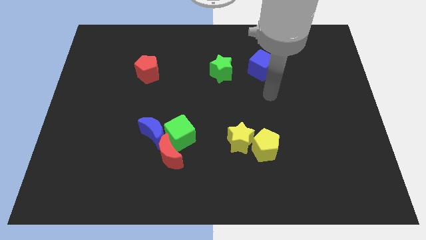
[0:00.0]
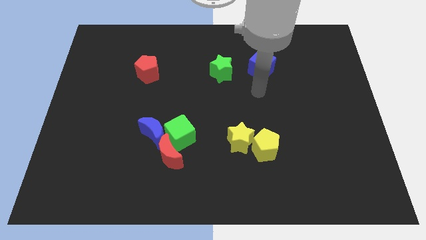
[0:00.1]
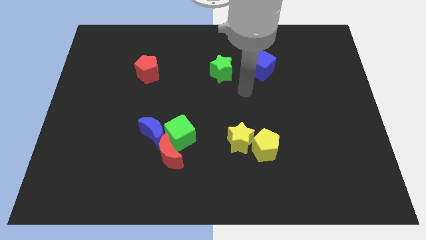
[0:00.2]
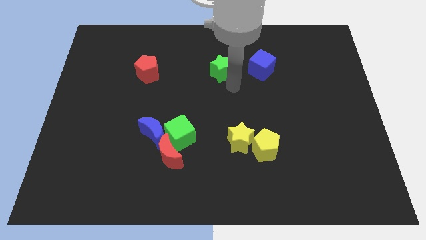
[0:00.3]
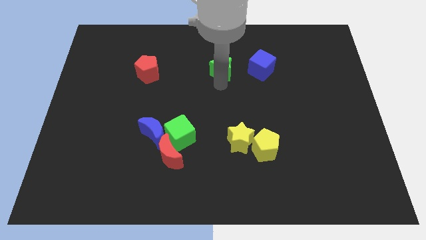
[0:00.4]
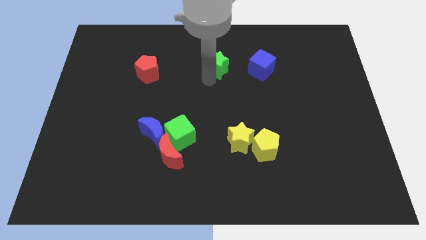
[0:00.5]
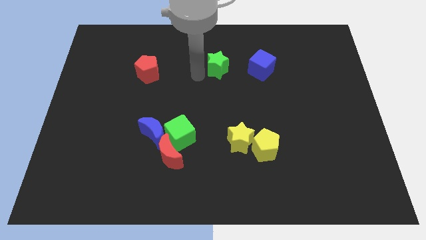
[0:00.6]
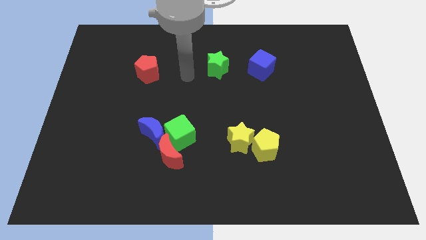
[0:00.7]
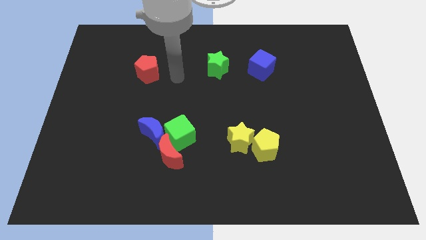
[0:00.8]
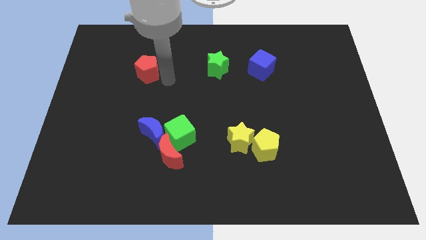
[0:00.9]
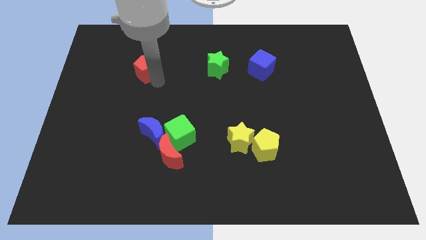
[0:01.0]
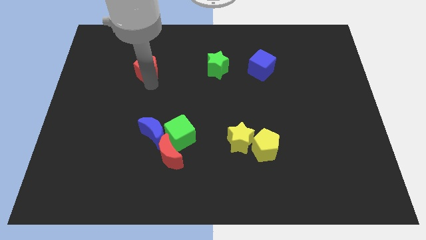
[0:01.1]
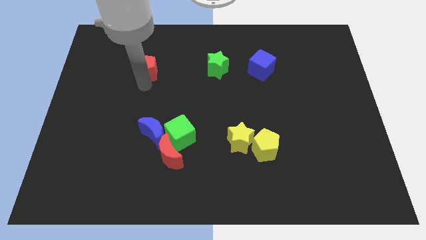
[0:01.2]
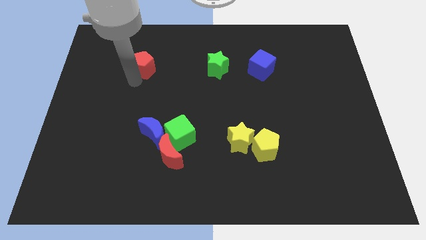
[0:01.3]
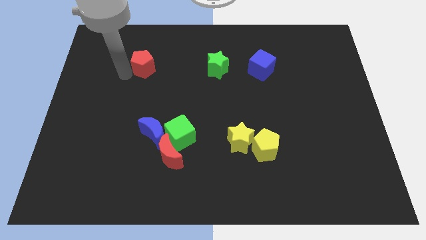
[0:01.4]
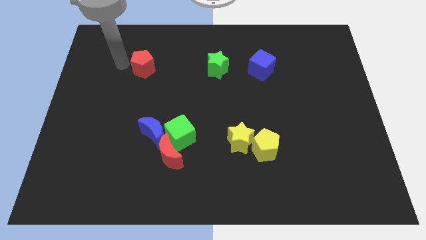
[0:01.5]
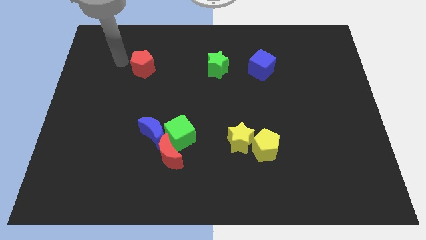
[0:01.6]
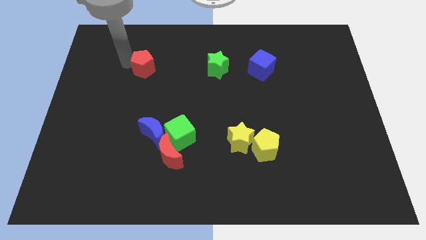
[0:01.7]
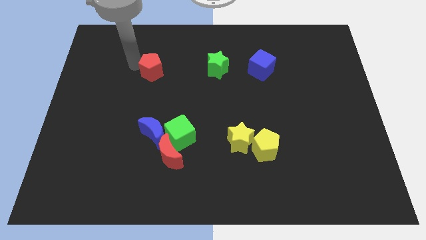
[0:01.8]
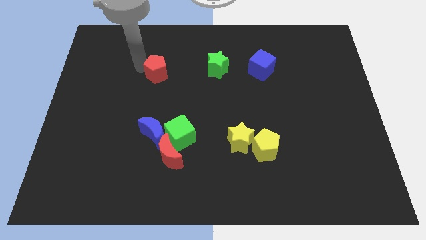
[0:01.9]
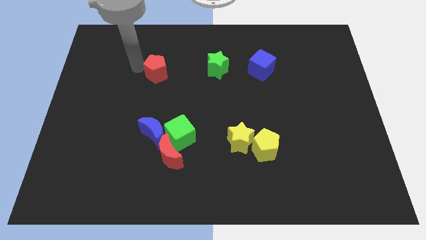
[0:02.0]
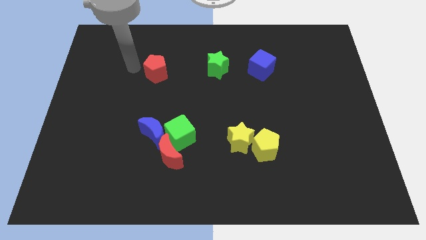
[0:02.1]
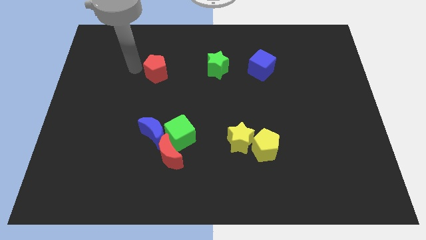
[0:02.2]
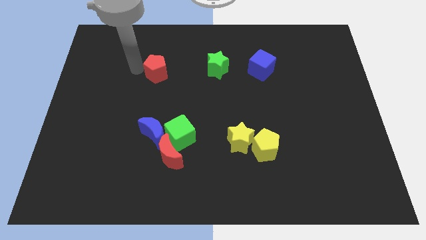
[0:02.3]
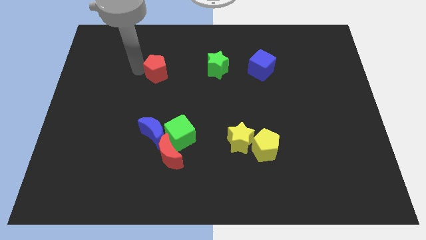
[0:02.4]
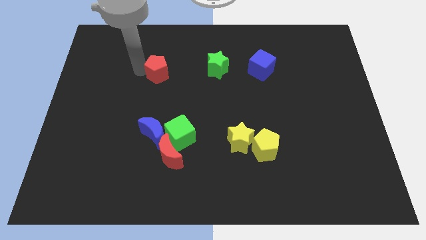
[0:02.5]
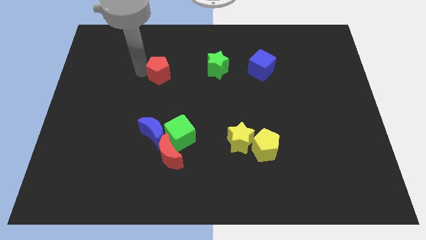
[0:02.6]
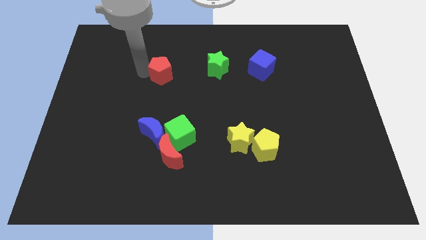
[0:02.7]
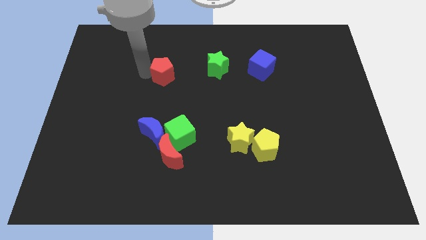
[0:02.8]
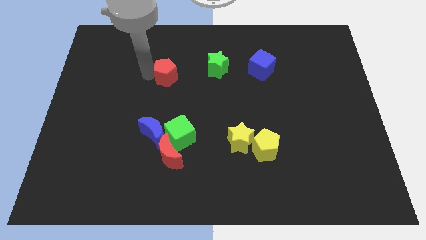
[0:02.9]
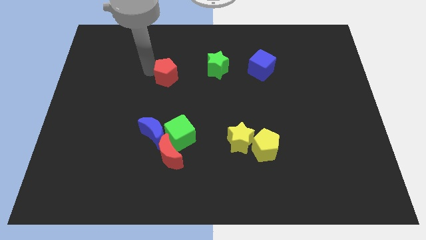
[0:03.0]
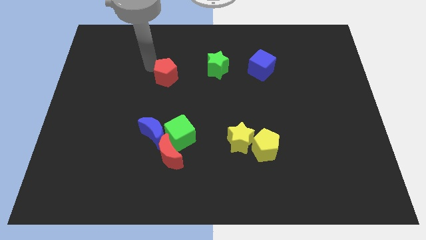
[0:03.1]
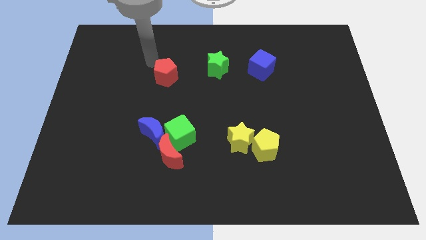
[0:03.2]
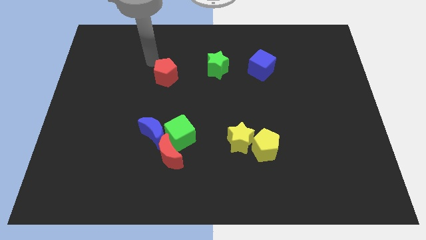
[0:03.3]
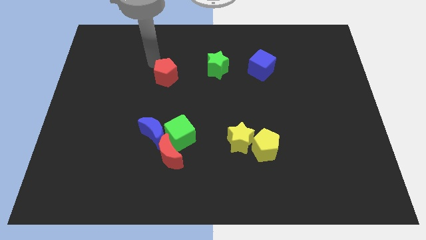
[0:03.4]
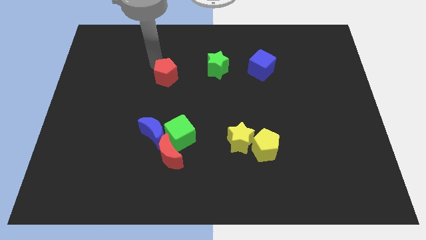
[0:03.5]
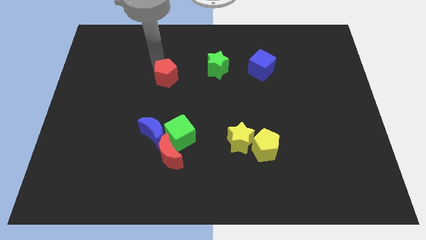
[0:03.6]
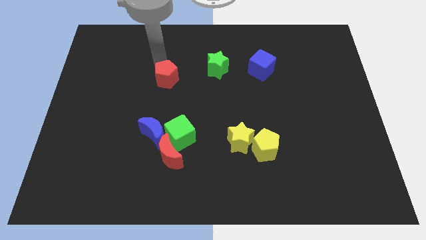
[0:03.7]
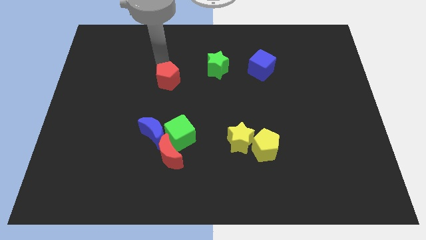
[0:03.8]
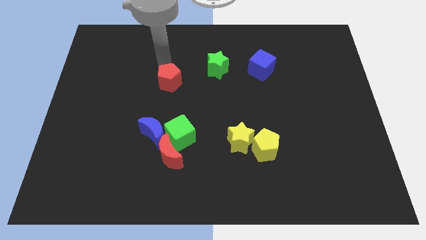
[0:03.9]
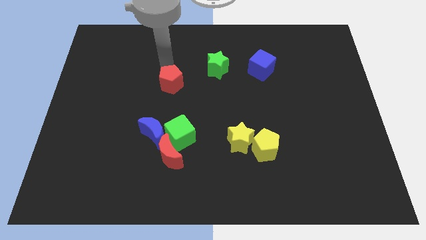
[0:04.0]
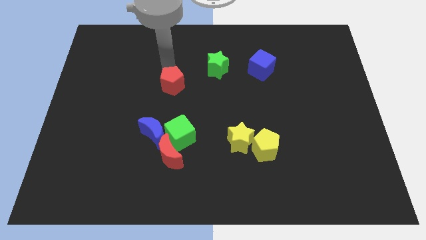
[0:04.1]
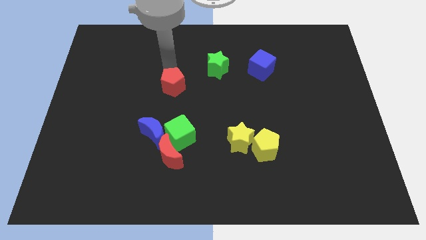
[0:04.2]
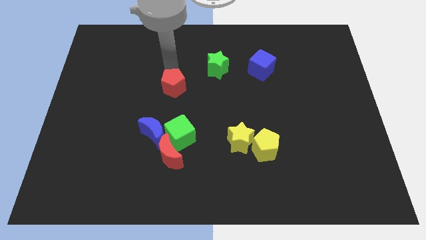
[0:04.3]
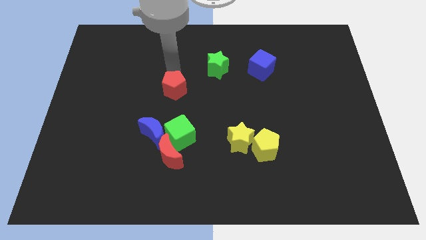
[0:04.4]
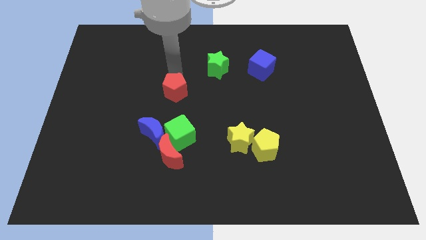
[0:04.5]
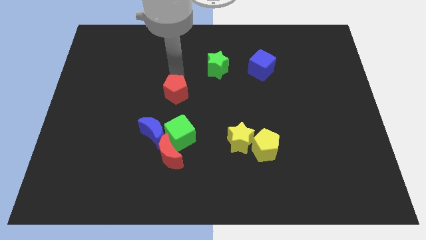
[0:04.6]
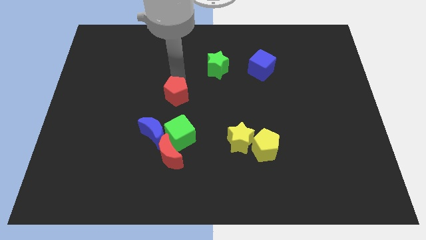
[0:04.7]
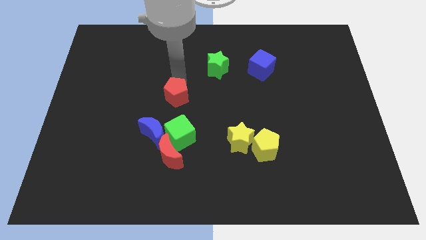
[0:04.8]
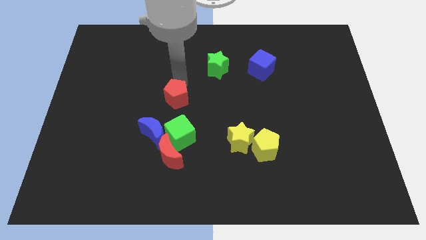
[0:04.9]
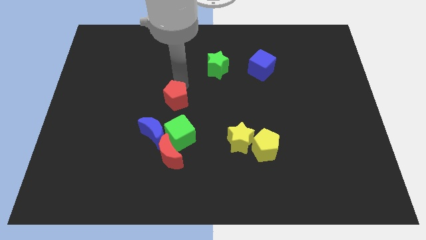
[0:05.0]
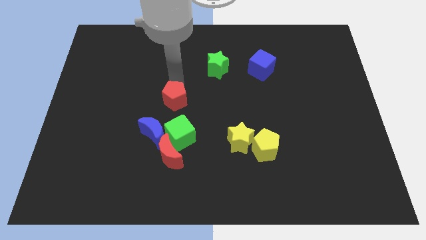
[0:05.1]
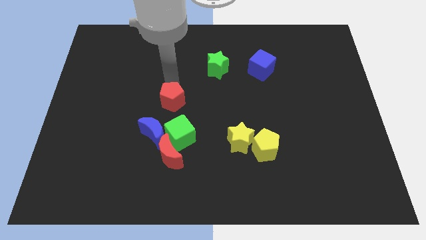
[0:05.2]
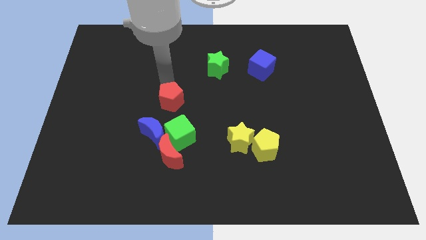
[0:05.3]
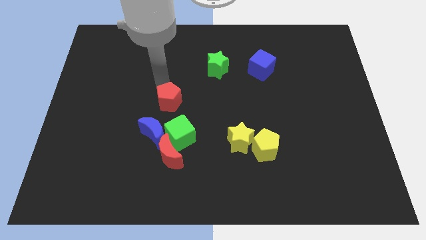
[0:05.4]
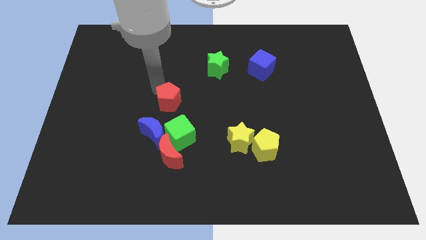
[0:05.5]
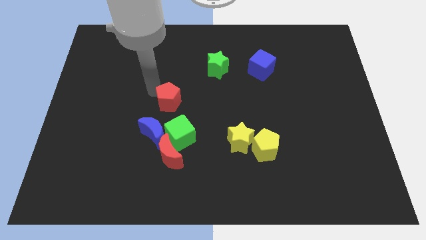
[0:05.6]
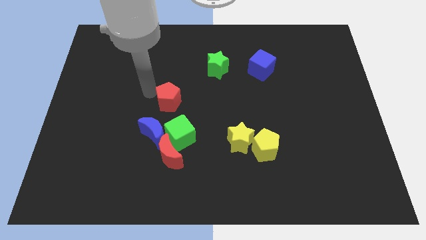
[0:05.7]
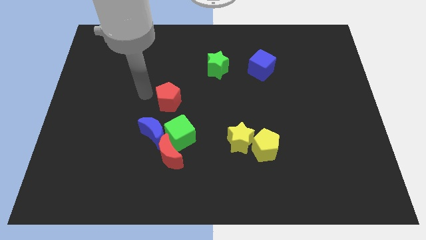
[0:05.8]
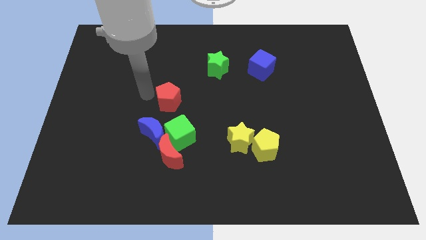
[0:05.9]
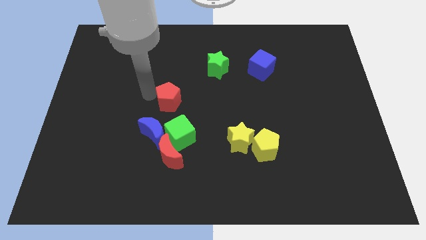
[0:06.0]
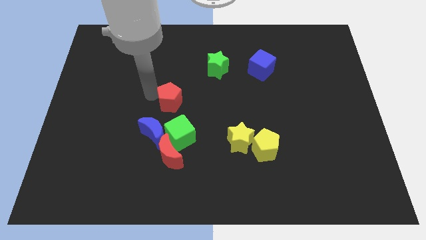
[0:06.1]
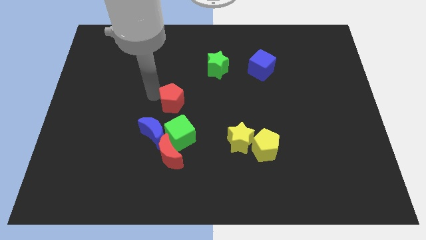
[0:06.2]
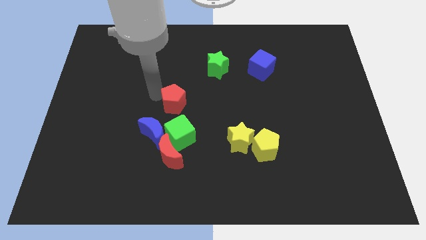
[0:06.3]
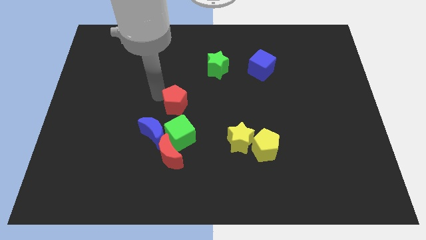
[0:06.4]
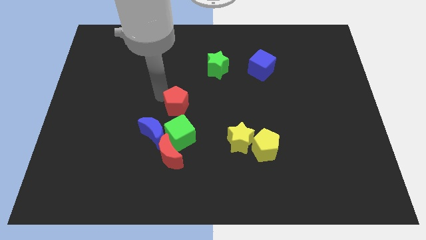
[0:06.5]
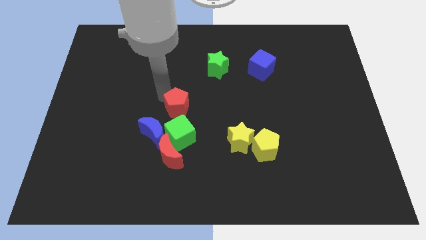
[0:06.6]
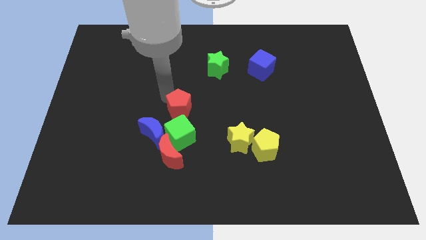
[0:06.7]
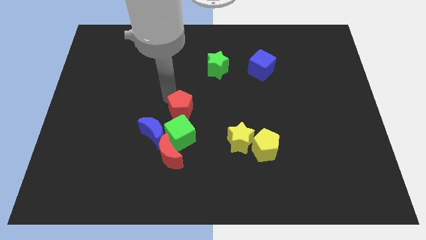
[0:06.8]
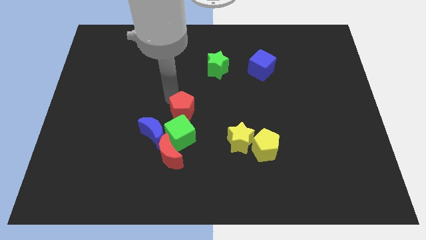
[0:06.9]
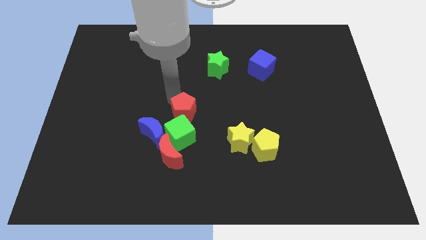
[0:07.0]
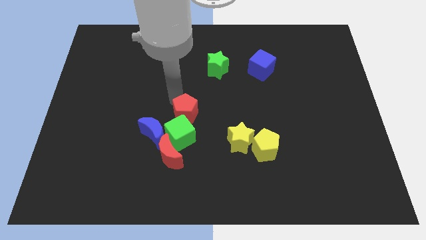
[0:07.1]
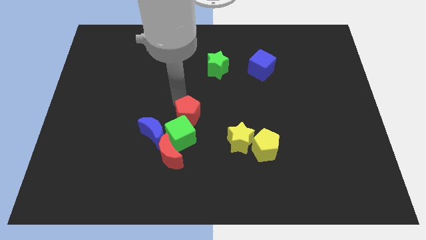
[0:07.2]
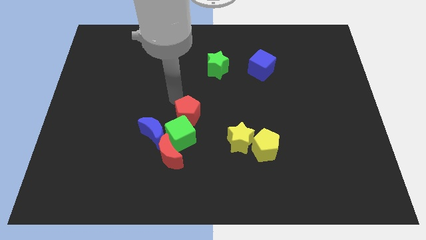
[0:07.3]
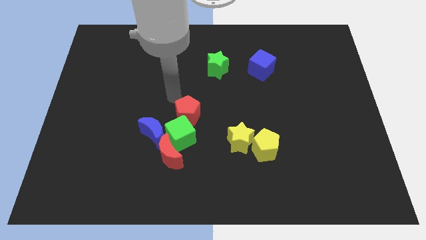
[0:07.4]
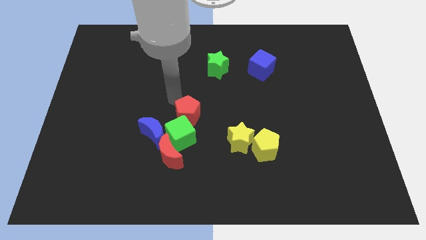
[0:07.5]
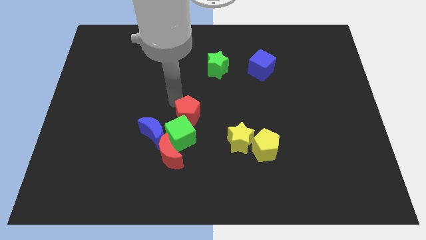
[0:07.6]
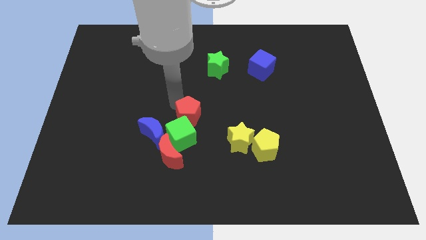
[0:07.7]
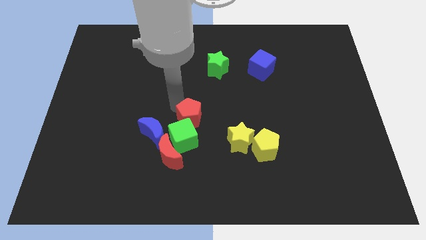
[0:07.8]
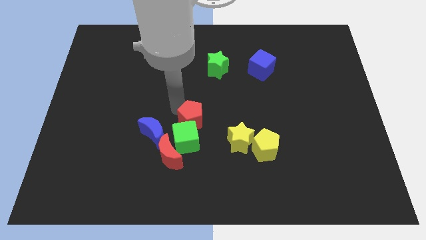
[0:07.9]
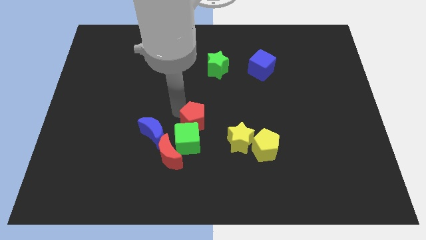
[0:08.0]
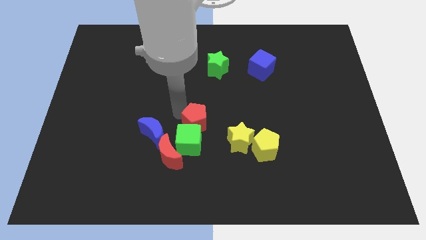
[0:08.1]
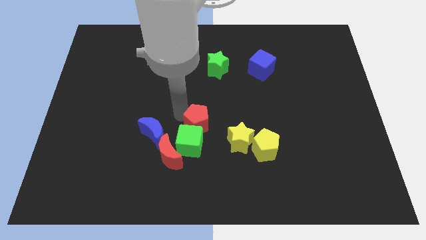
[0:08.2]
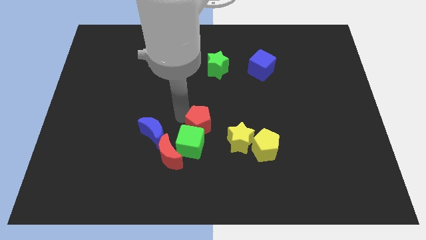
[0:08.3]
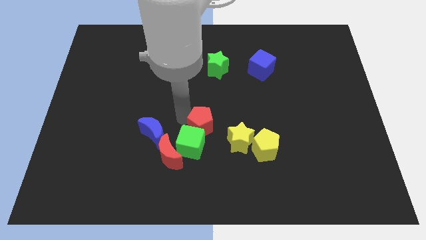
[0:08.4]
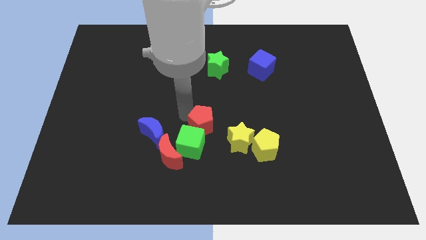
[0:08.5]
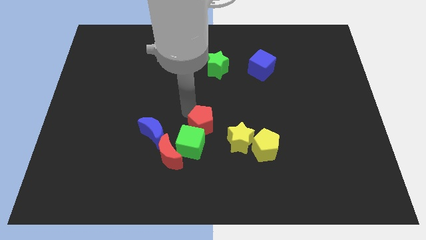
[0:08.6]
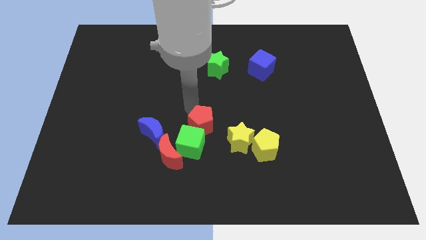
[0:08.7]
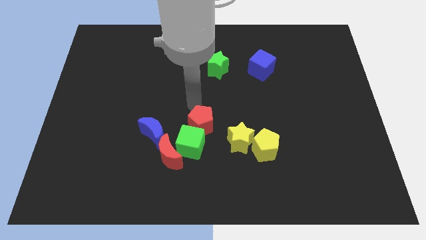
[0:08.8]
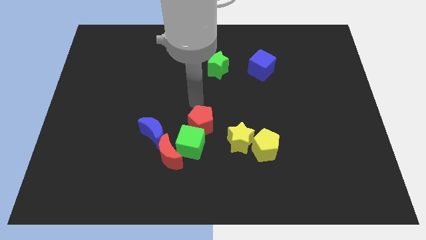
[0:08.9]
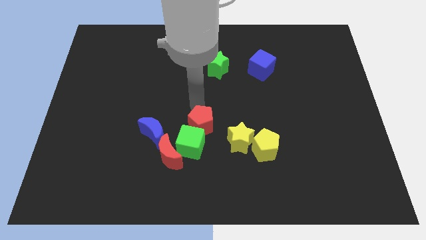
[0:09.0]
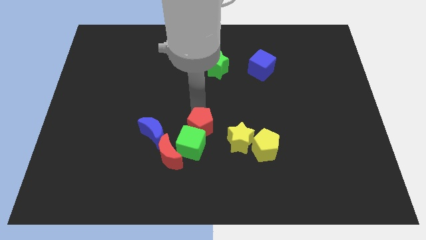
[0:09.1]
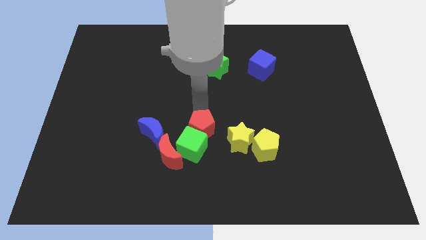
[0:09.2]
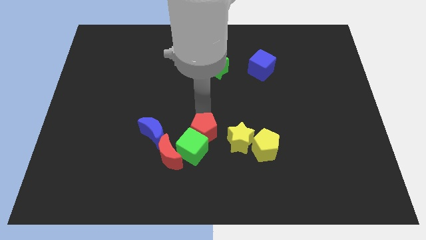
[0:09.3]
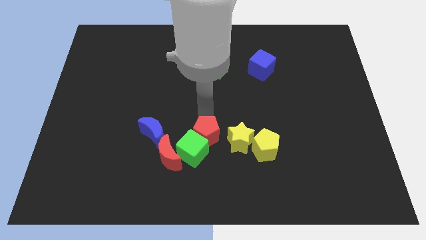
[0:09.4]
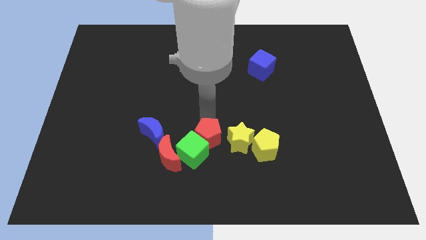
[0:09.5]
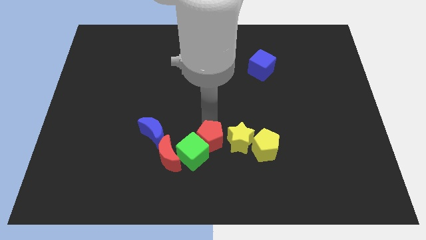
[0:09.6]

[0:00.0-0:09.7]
slide the red pentagon to the bottom left of the yellow star
